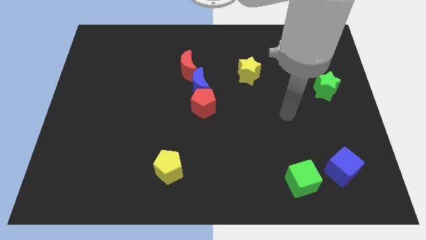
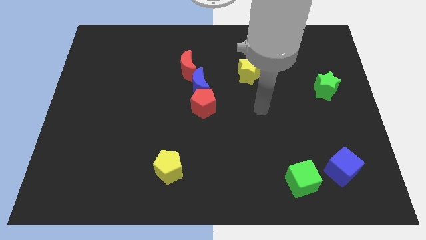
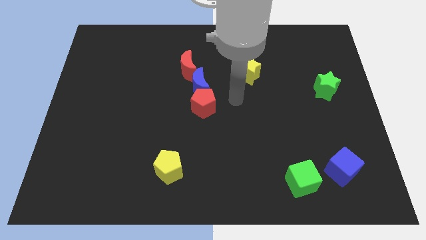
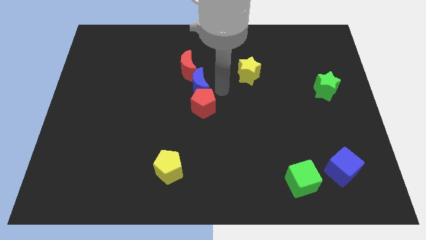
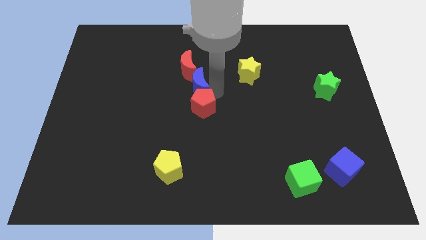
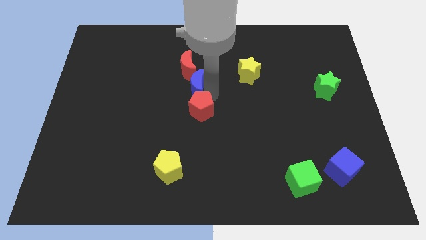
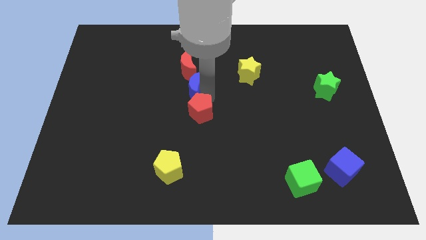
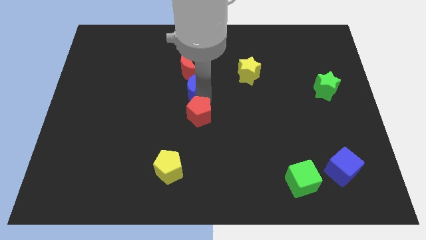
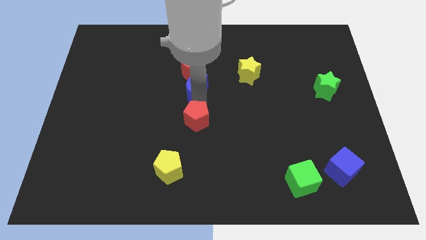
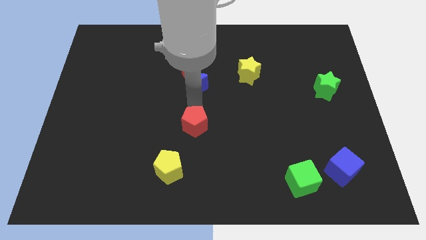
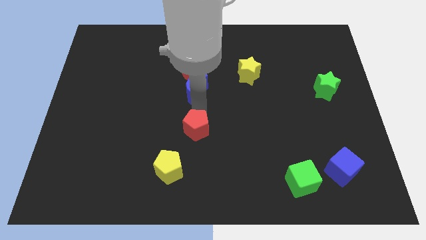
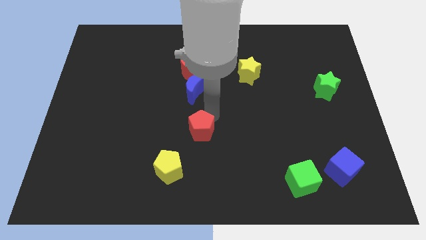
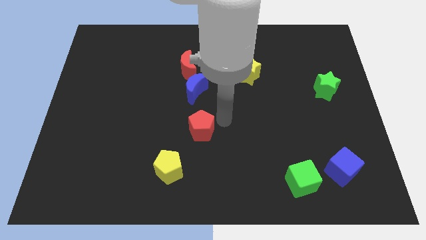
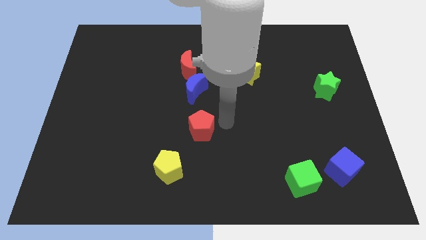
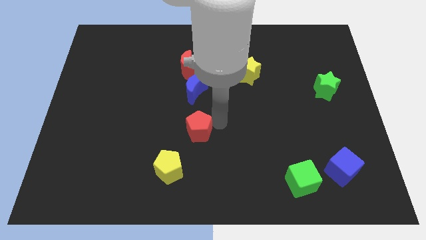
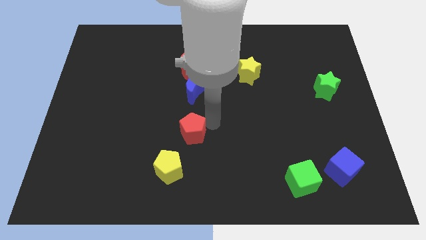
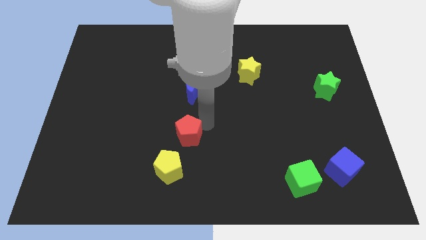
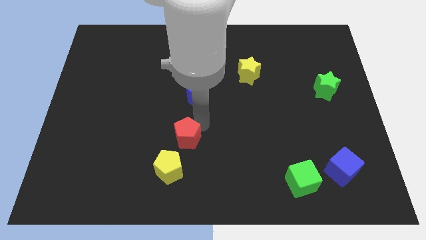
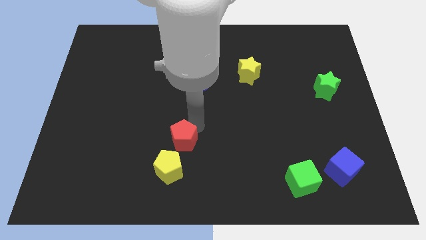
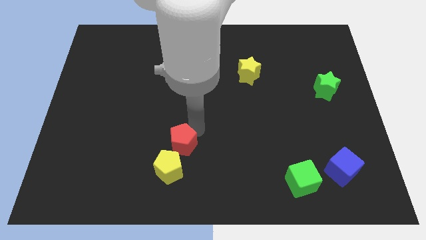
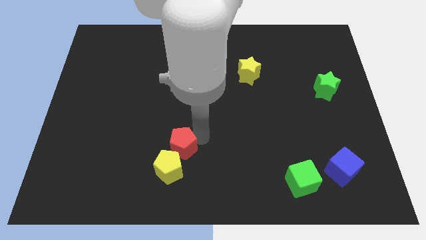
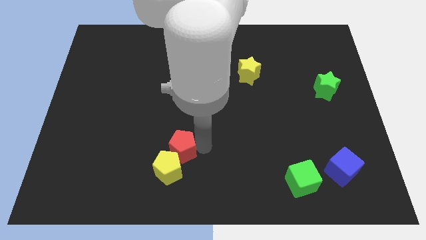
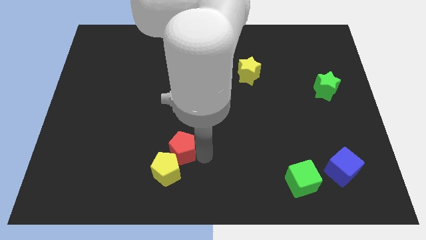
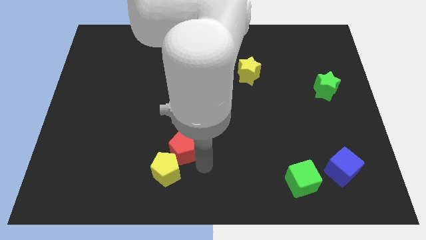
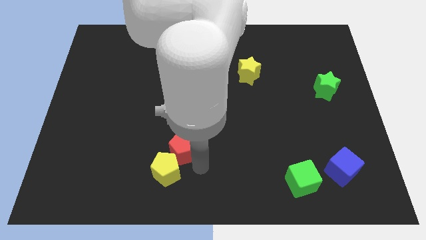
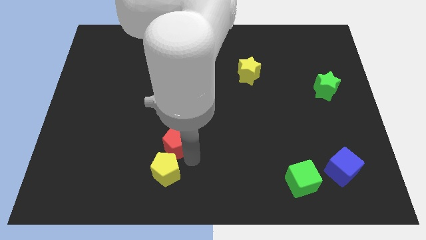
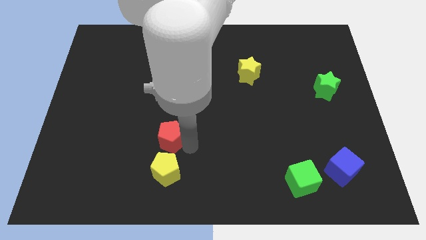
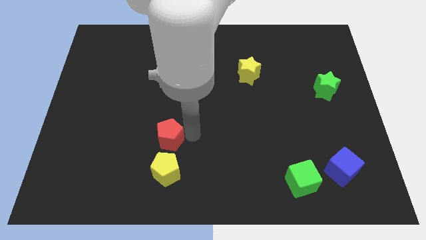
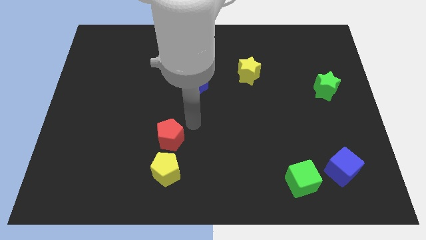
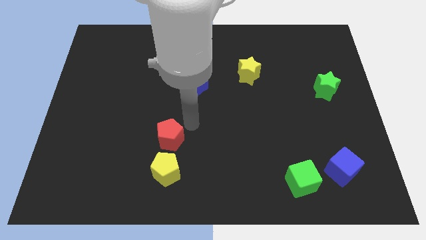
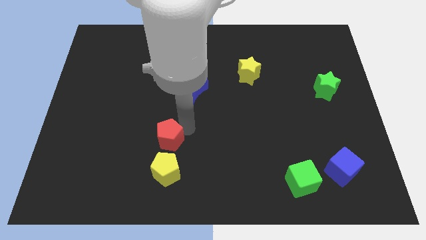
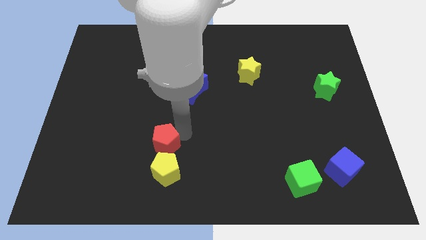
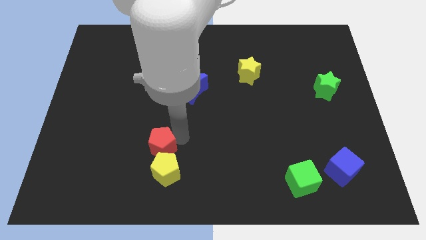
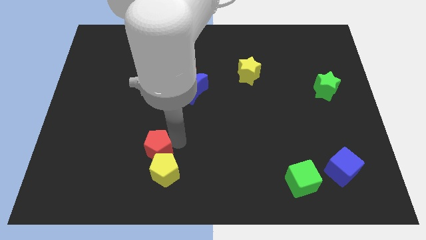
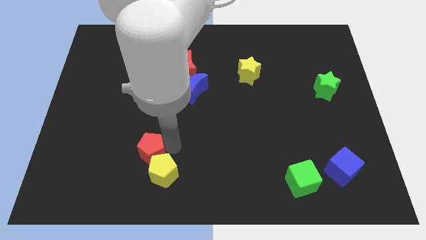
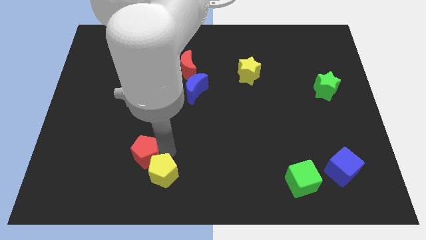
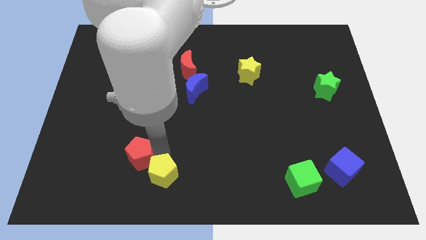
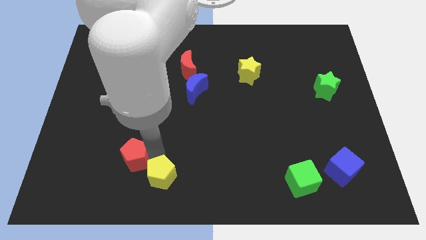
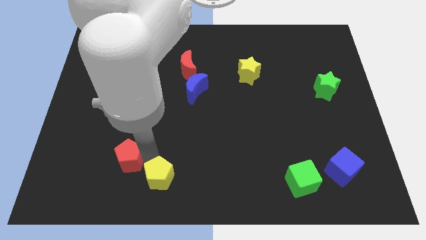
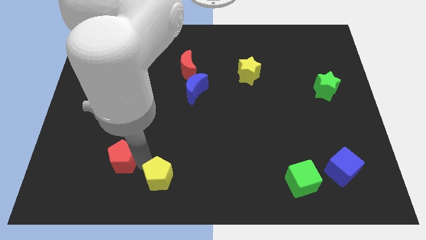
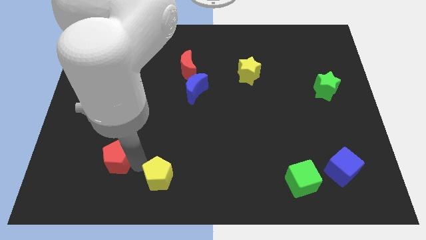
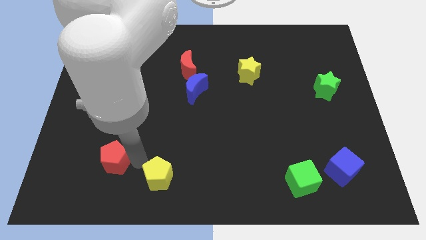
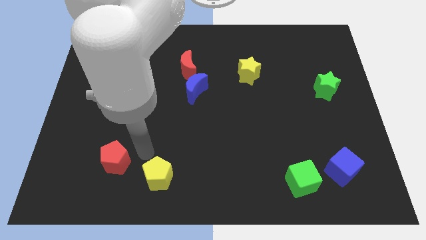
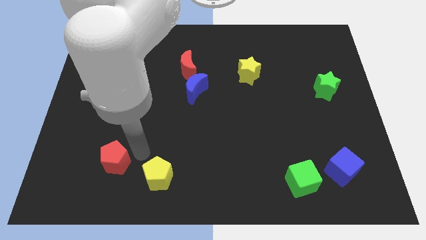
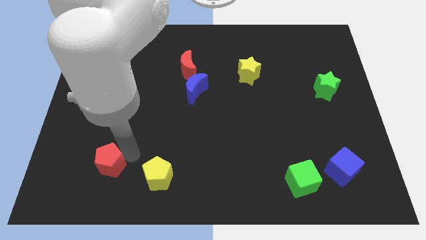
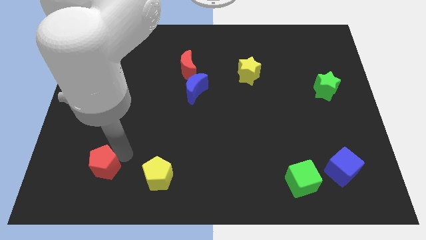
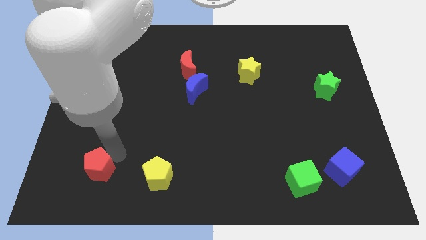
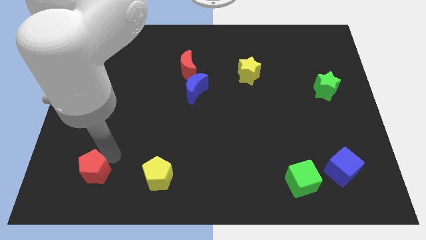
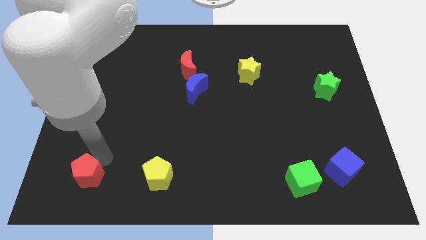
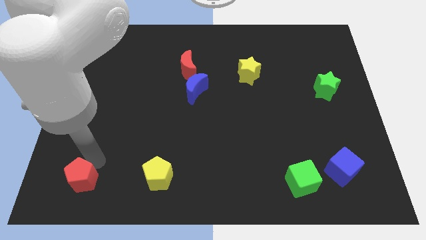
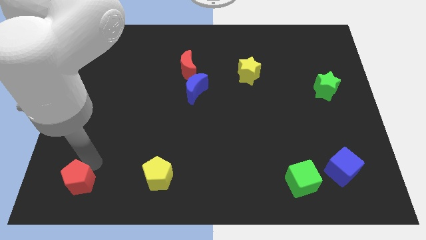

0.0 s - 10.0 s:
push the red pentagon to the bottom left corner

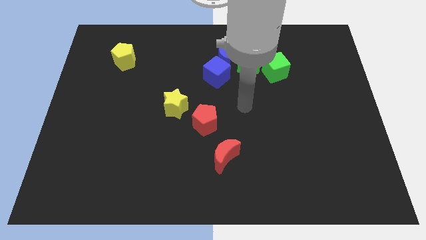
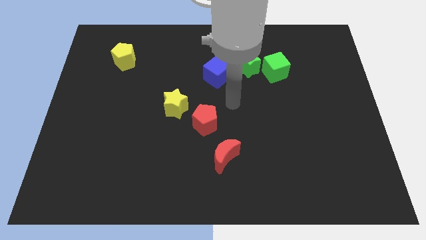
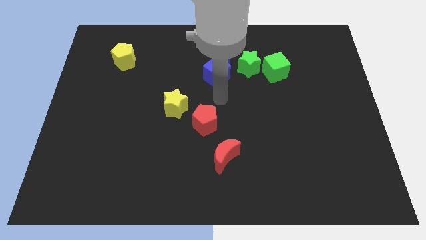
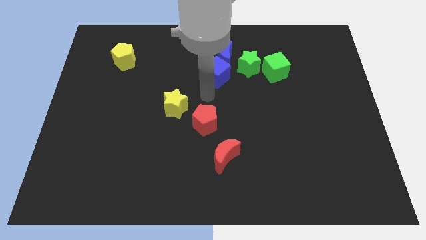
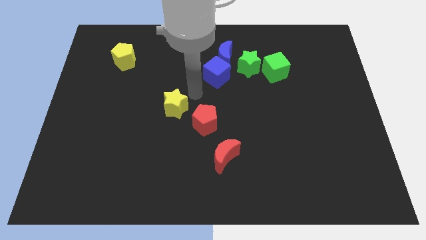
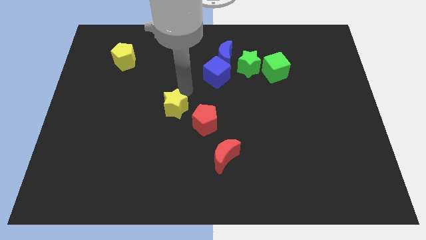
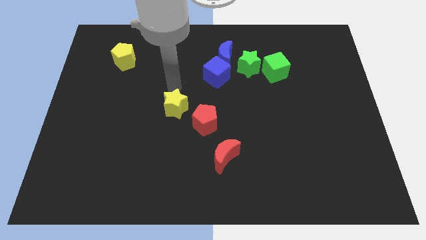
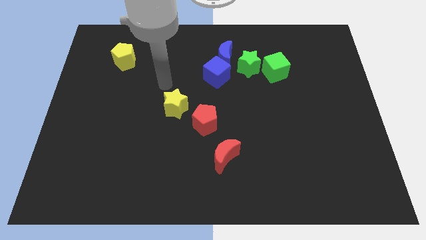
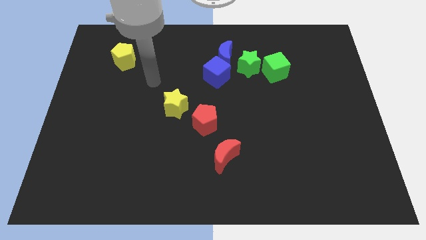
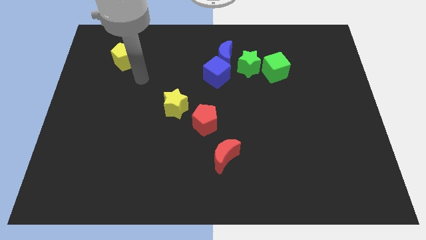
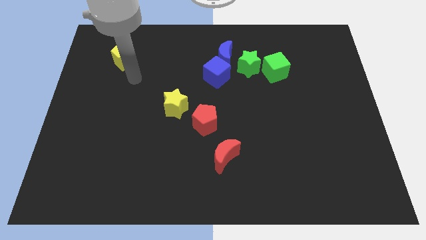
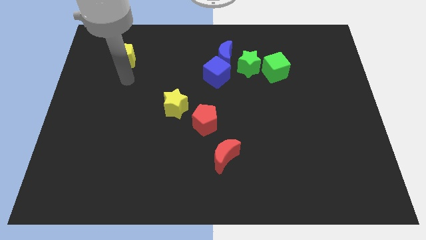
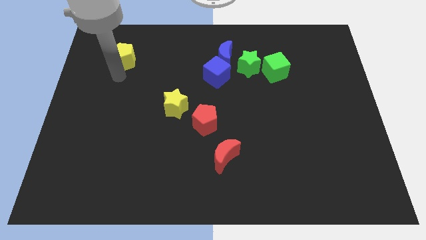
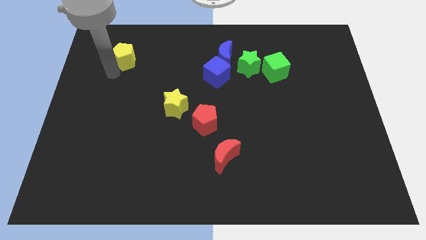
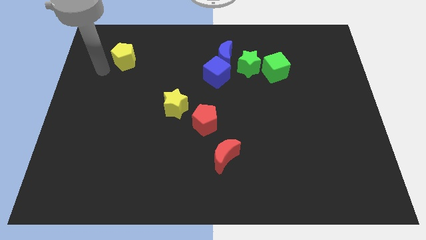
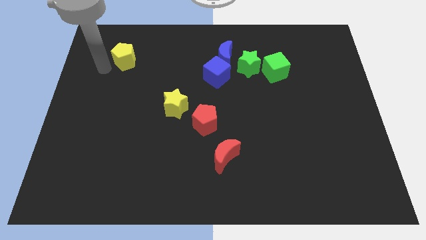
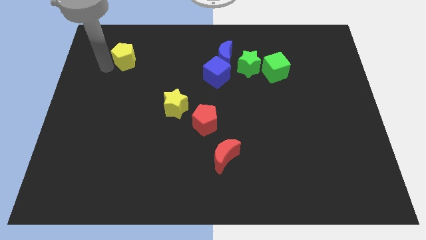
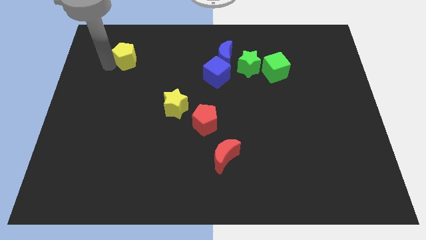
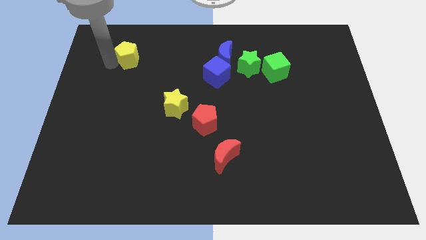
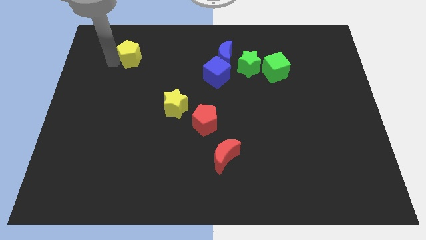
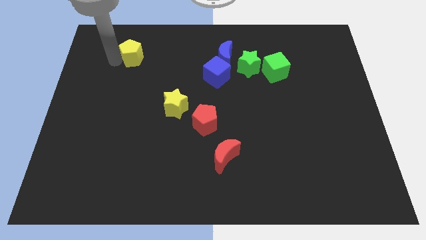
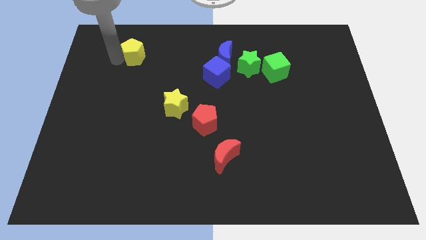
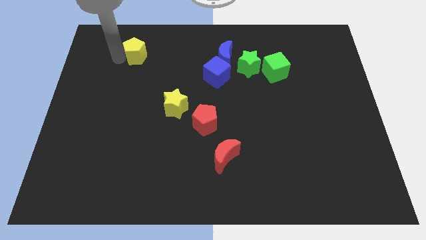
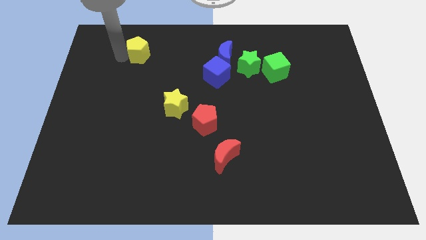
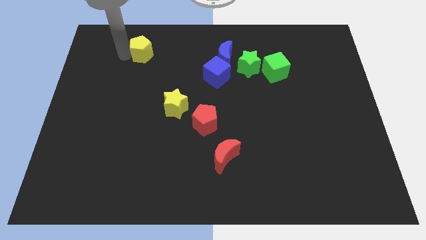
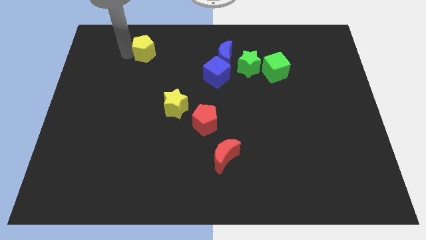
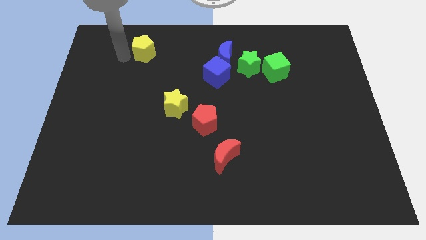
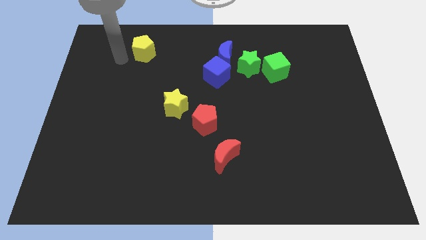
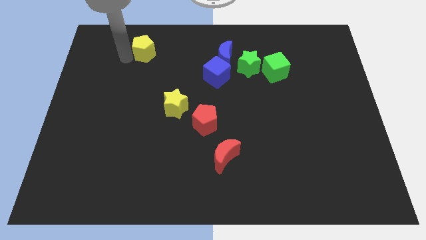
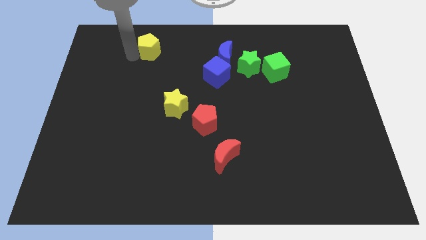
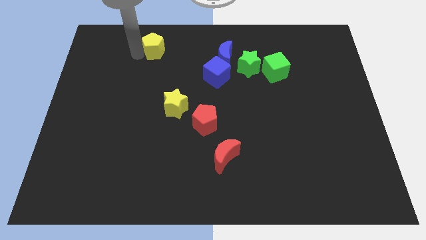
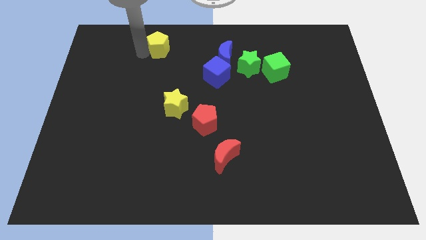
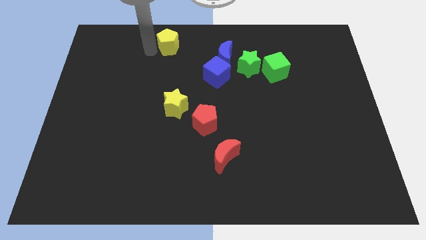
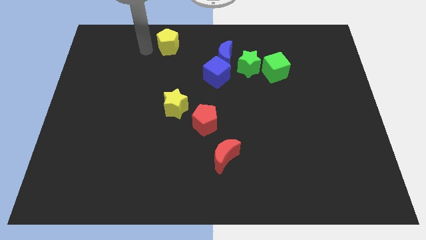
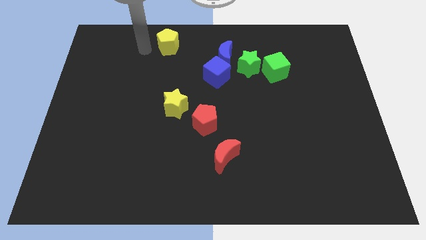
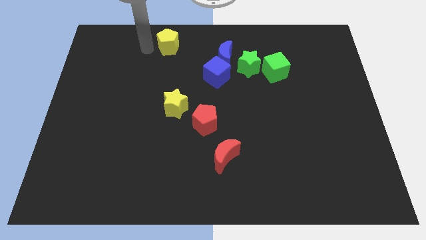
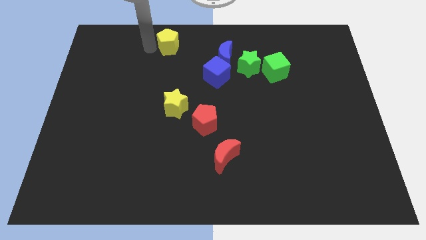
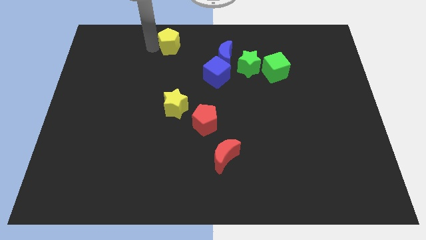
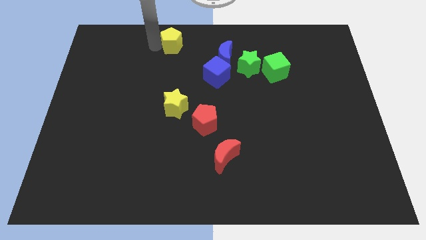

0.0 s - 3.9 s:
push the yellow pentagon to the towards your base
